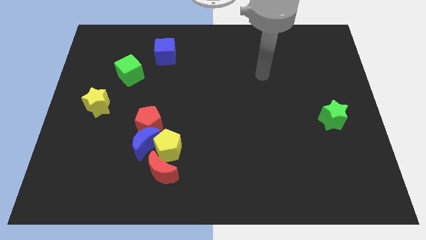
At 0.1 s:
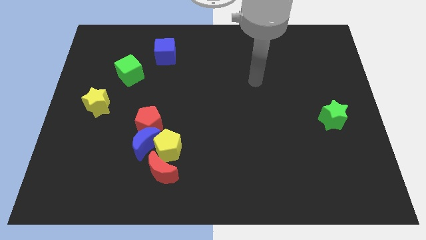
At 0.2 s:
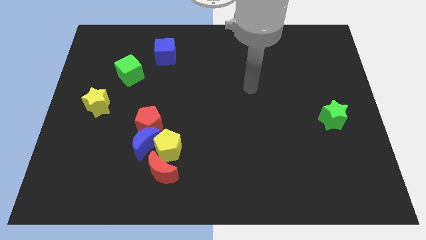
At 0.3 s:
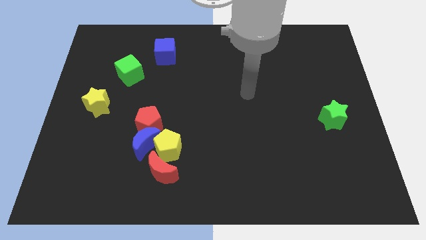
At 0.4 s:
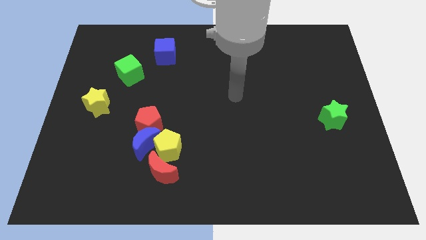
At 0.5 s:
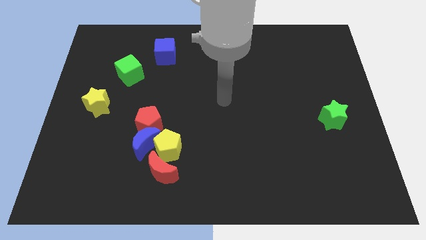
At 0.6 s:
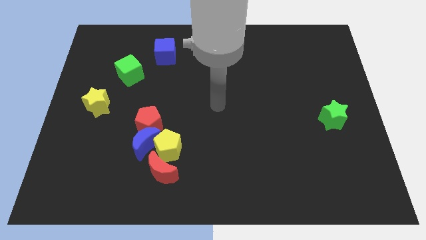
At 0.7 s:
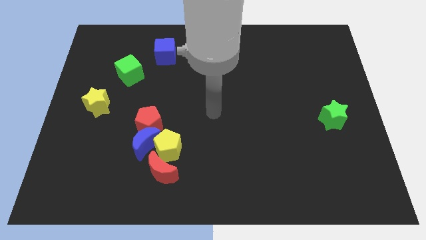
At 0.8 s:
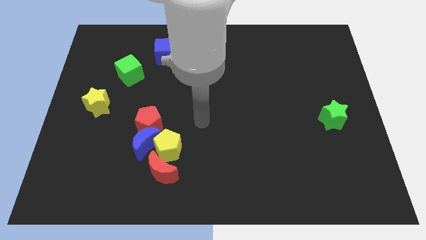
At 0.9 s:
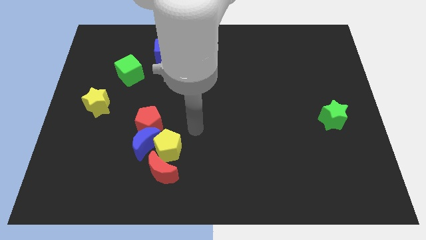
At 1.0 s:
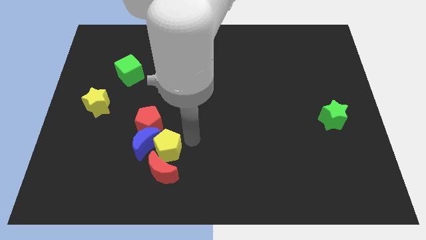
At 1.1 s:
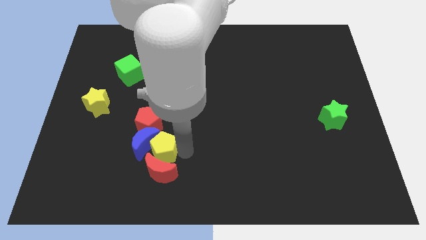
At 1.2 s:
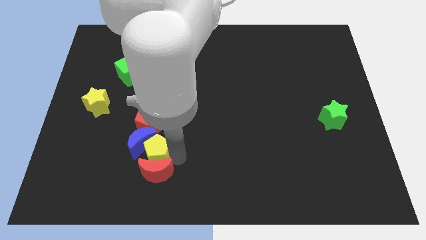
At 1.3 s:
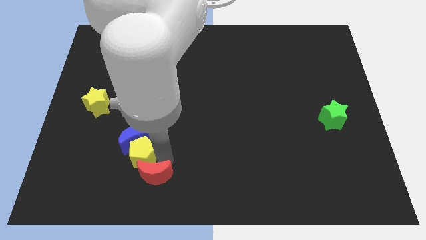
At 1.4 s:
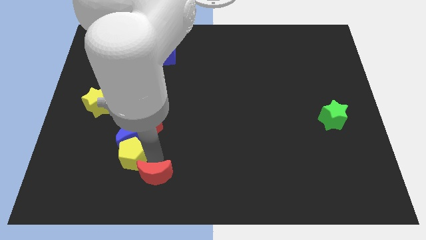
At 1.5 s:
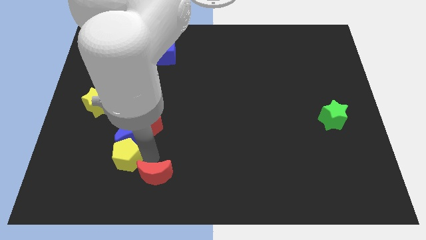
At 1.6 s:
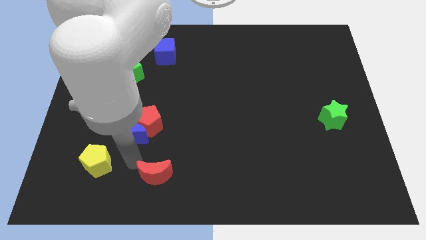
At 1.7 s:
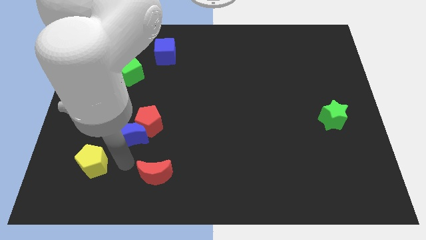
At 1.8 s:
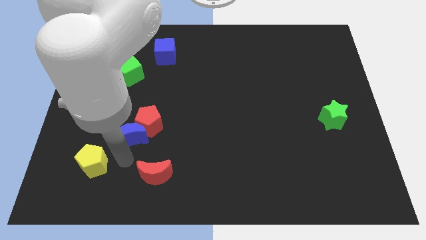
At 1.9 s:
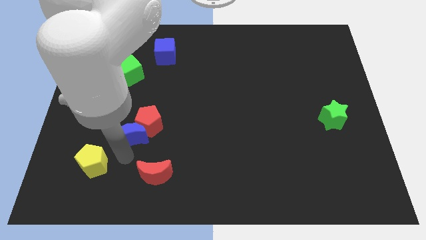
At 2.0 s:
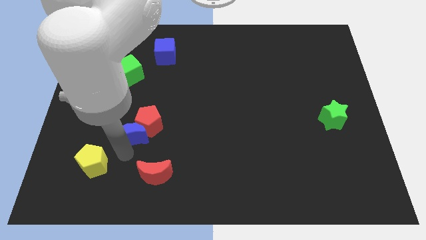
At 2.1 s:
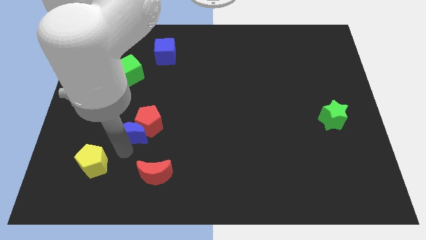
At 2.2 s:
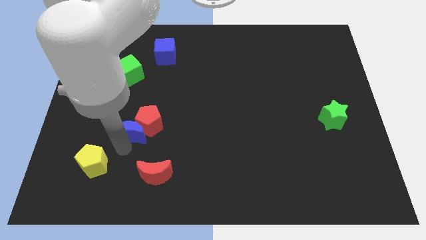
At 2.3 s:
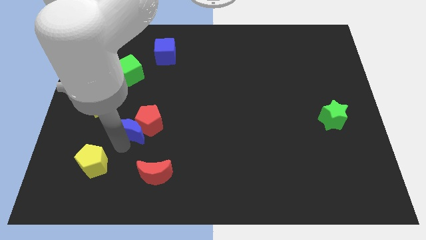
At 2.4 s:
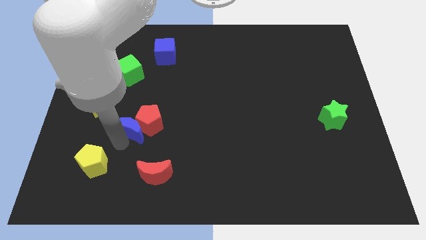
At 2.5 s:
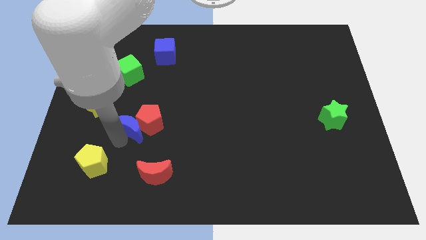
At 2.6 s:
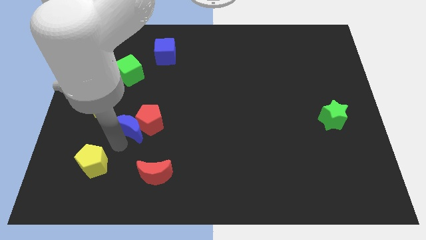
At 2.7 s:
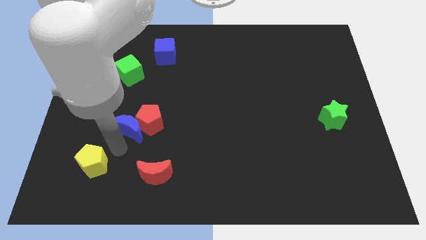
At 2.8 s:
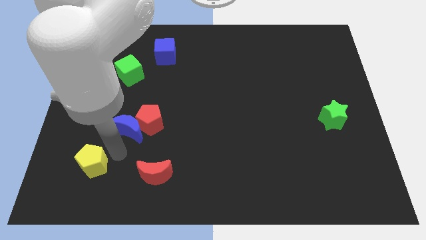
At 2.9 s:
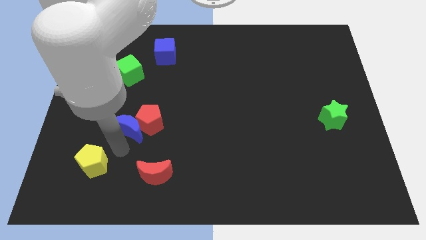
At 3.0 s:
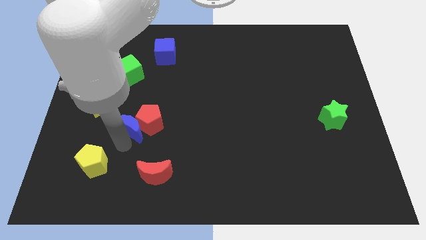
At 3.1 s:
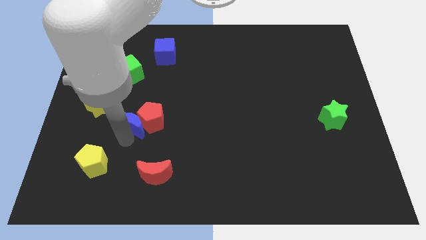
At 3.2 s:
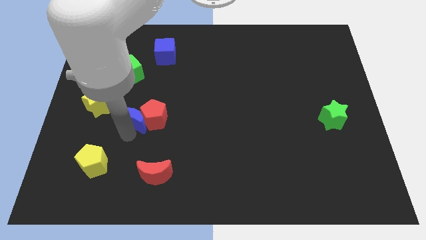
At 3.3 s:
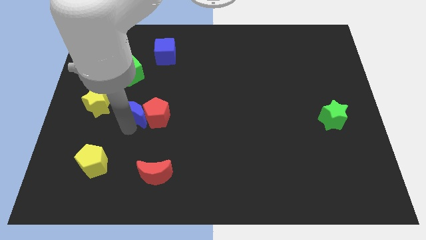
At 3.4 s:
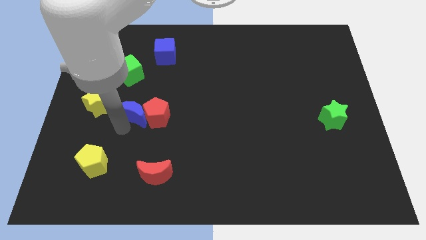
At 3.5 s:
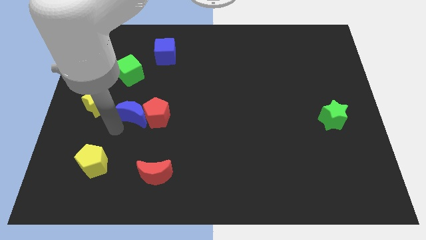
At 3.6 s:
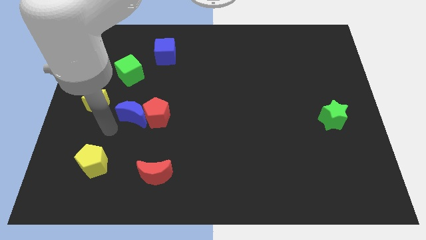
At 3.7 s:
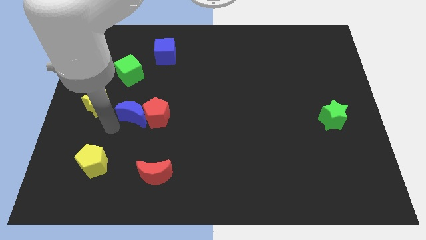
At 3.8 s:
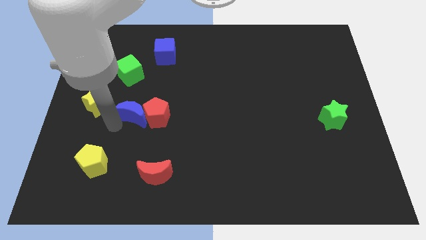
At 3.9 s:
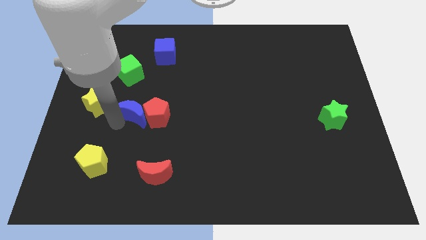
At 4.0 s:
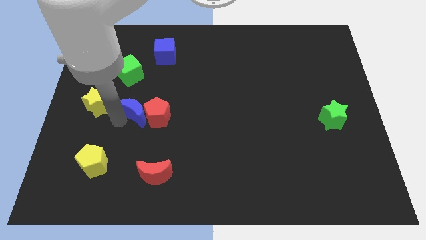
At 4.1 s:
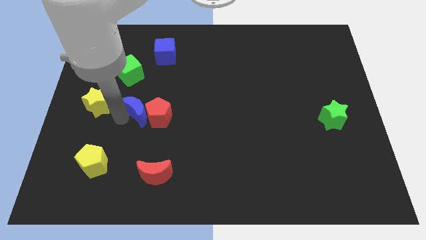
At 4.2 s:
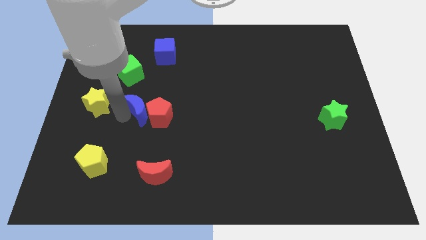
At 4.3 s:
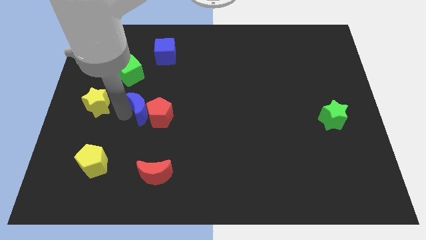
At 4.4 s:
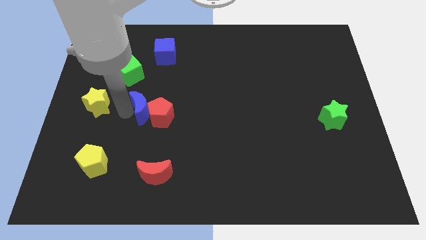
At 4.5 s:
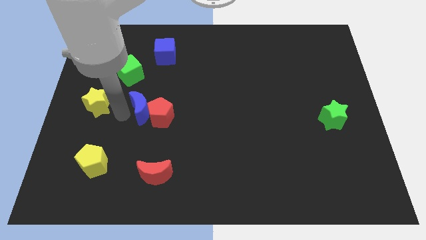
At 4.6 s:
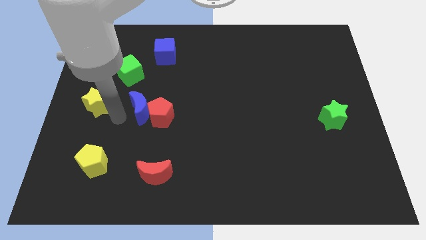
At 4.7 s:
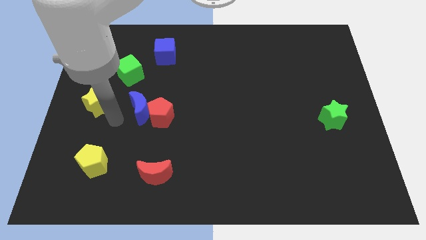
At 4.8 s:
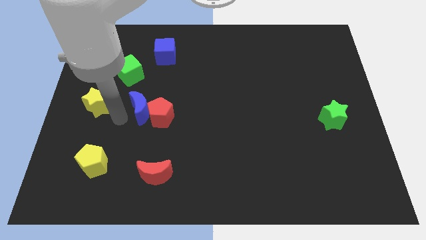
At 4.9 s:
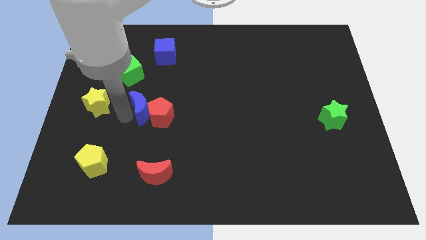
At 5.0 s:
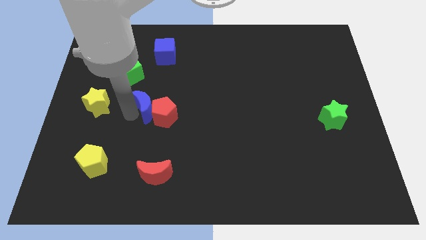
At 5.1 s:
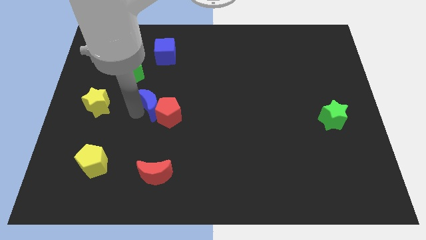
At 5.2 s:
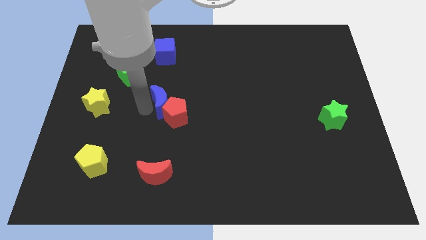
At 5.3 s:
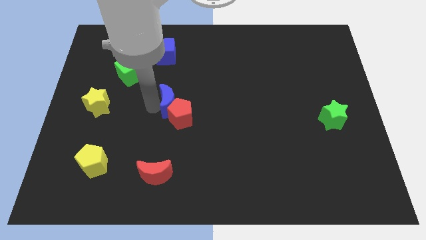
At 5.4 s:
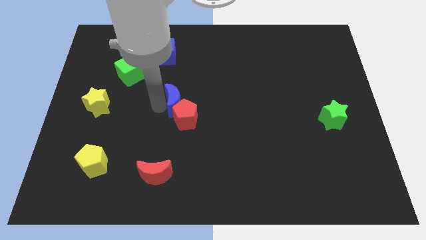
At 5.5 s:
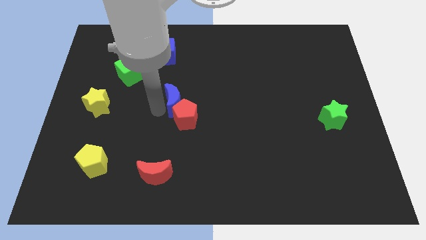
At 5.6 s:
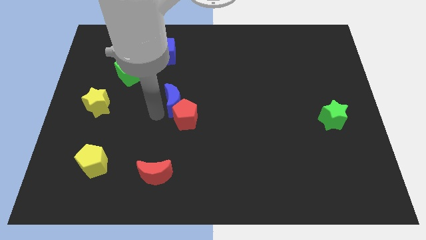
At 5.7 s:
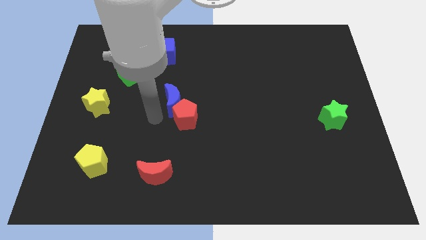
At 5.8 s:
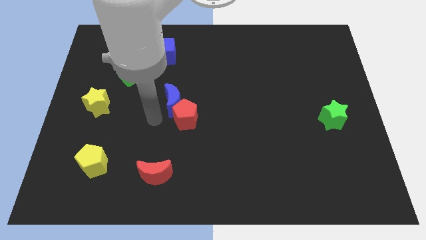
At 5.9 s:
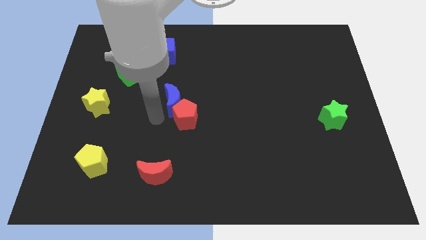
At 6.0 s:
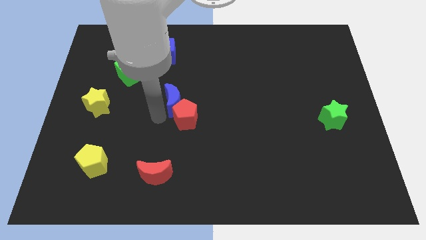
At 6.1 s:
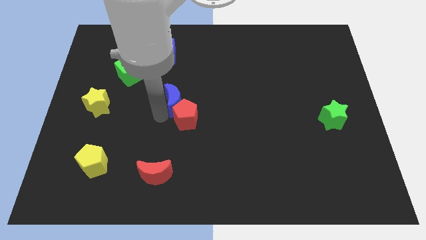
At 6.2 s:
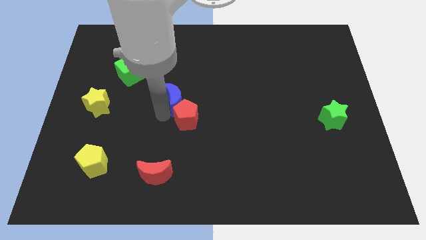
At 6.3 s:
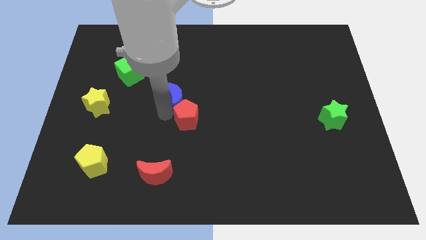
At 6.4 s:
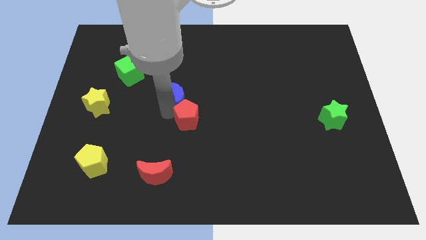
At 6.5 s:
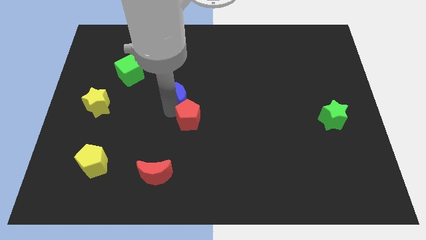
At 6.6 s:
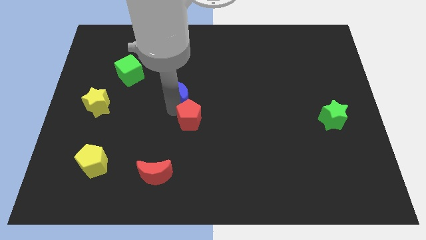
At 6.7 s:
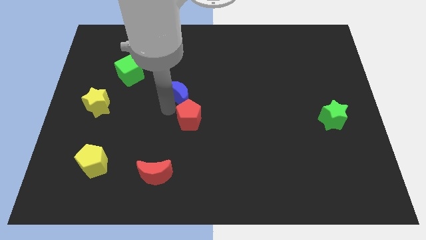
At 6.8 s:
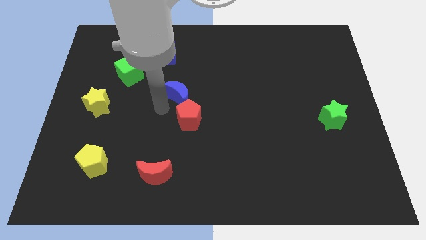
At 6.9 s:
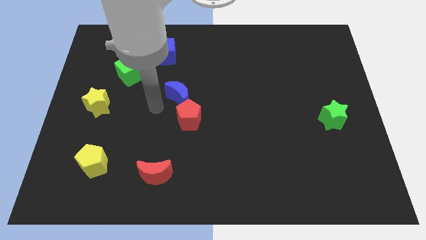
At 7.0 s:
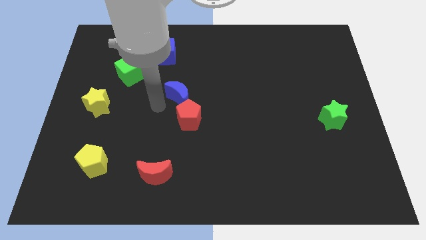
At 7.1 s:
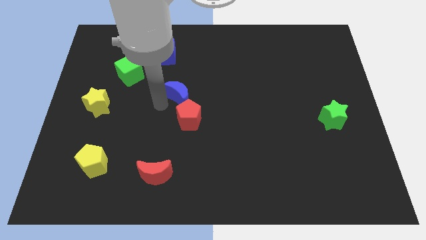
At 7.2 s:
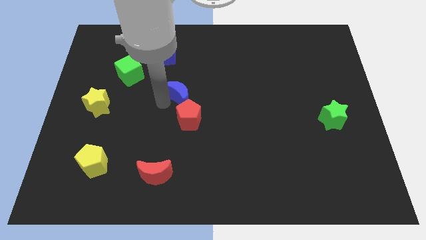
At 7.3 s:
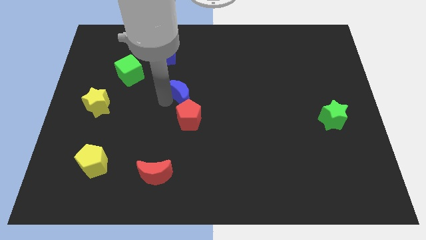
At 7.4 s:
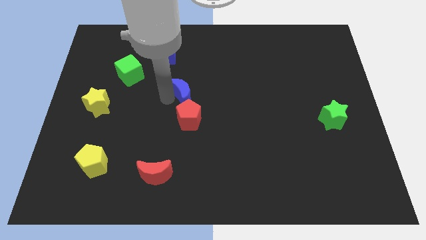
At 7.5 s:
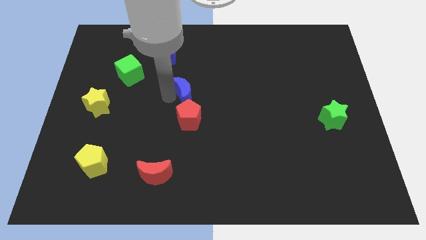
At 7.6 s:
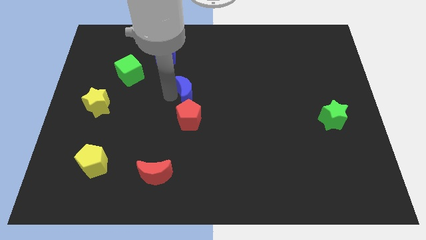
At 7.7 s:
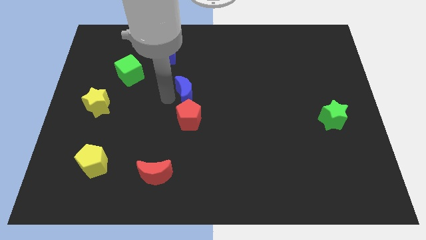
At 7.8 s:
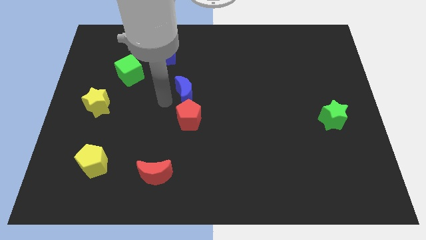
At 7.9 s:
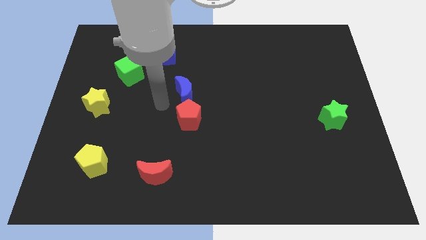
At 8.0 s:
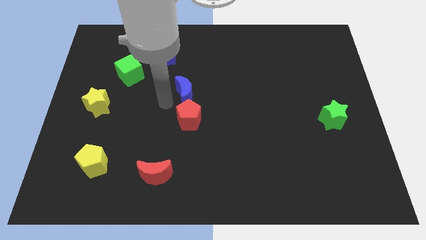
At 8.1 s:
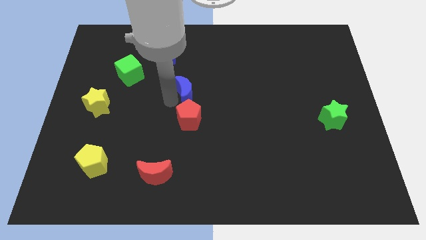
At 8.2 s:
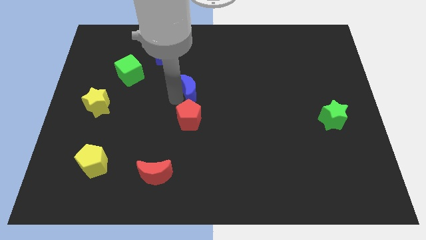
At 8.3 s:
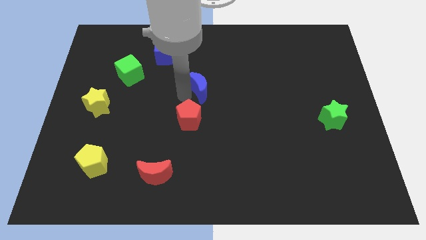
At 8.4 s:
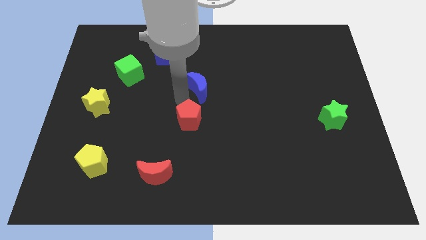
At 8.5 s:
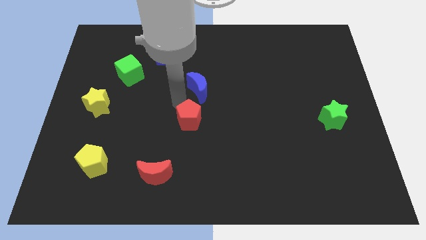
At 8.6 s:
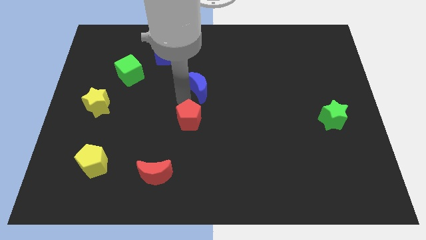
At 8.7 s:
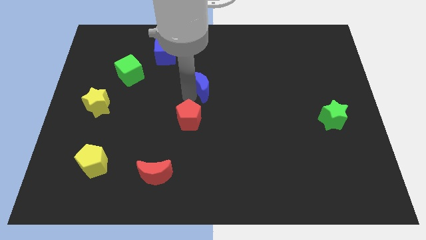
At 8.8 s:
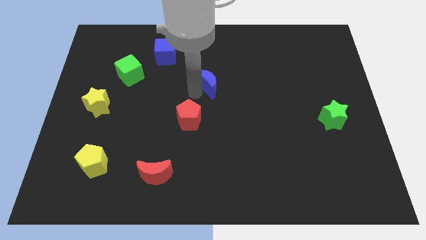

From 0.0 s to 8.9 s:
push the blue moon up and then right
